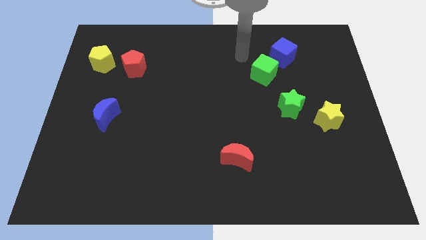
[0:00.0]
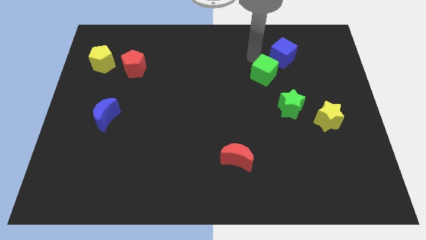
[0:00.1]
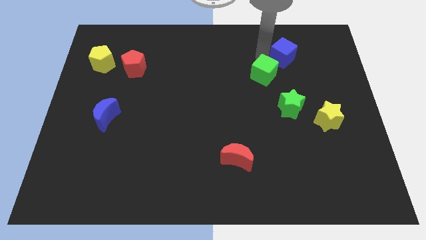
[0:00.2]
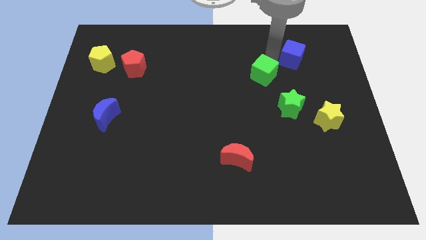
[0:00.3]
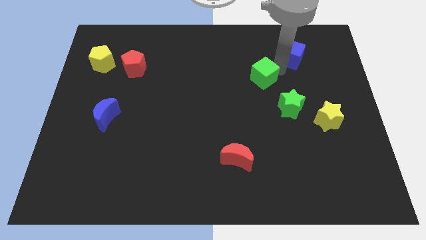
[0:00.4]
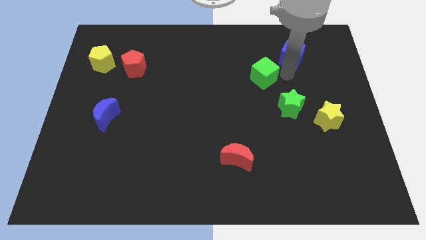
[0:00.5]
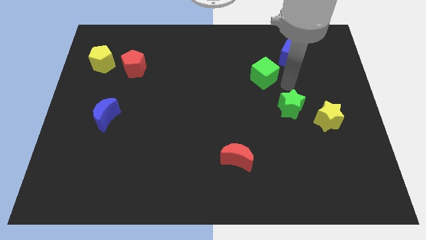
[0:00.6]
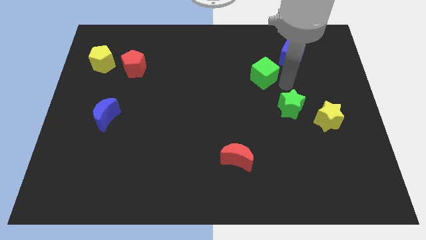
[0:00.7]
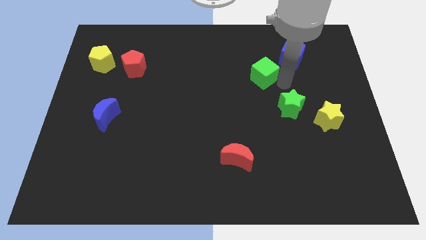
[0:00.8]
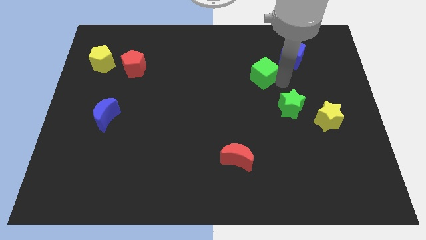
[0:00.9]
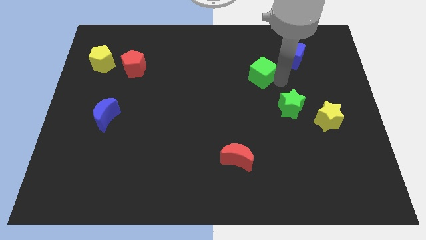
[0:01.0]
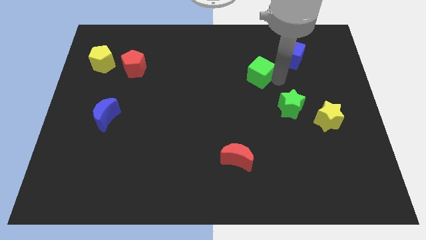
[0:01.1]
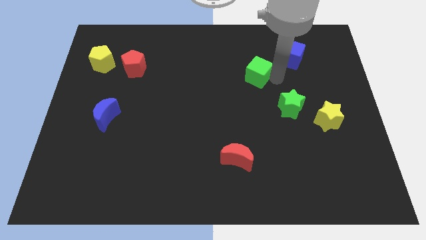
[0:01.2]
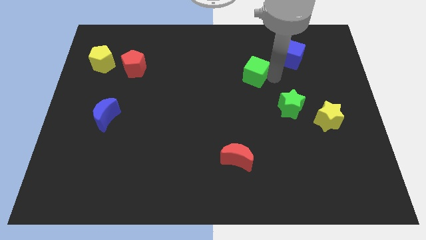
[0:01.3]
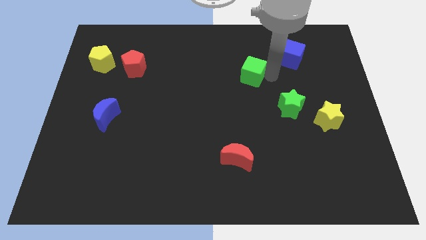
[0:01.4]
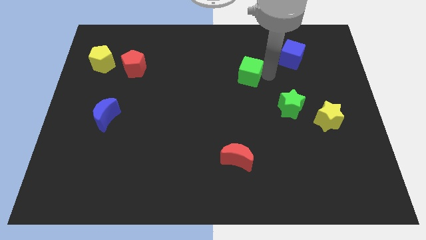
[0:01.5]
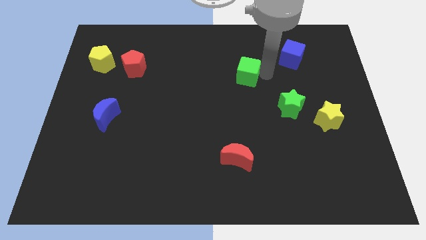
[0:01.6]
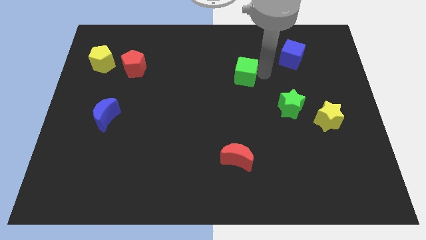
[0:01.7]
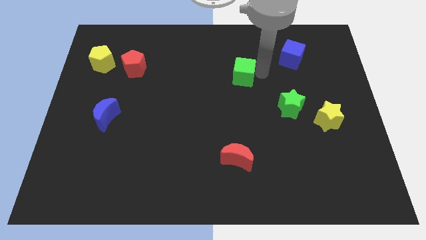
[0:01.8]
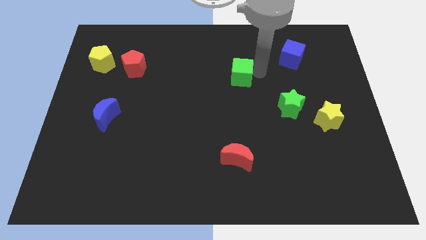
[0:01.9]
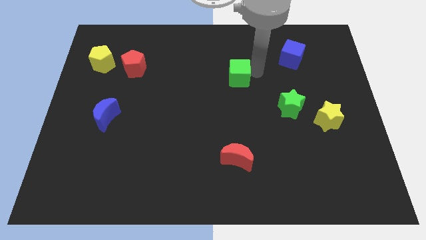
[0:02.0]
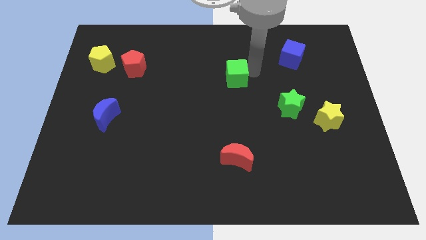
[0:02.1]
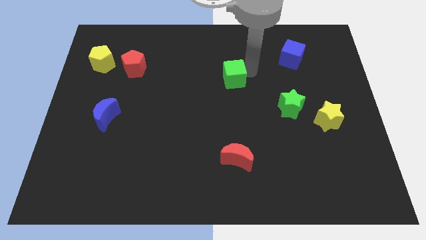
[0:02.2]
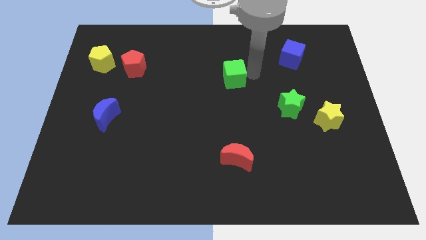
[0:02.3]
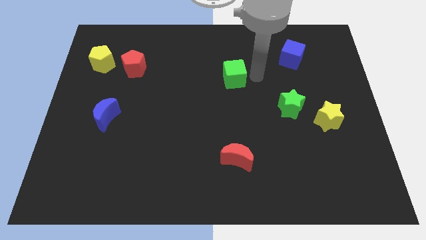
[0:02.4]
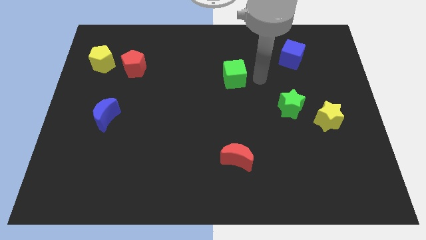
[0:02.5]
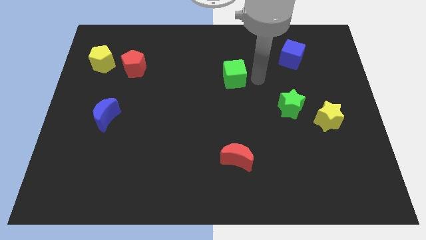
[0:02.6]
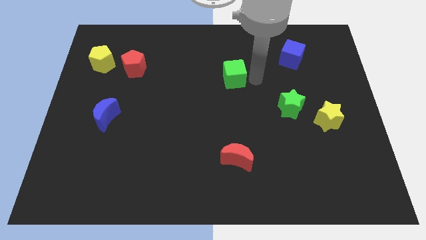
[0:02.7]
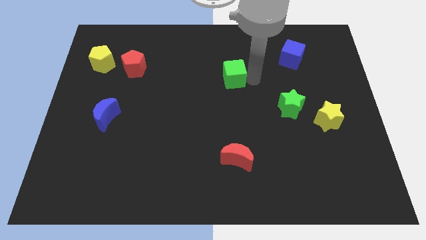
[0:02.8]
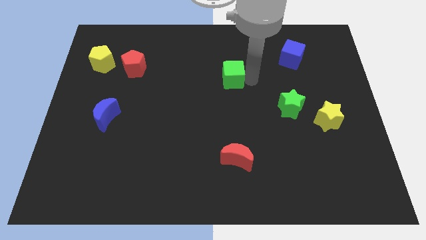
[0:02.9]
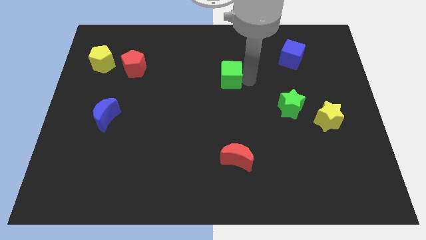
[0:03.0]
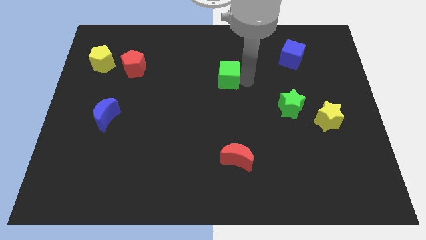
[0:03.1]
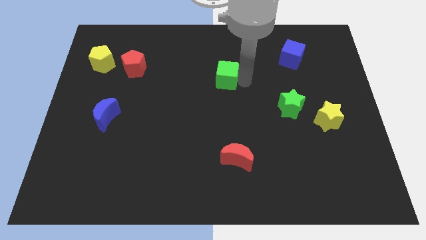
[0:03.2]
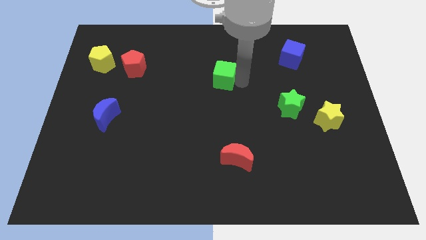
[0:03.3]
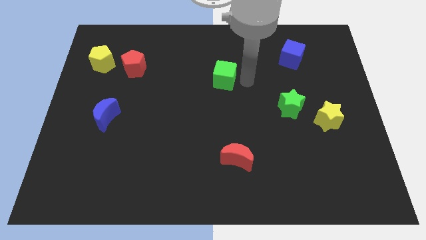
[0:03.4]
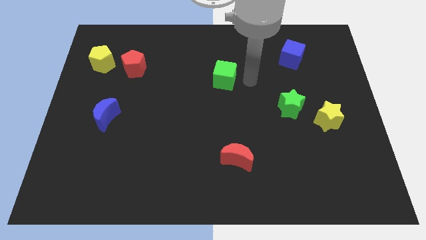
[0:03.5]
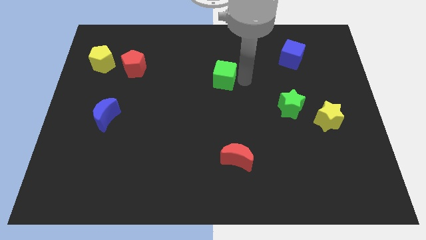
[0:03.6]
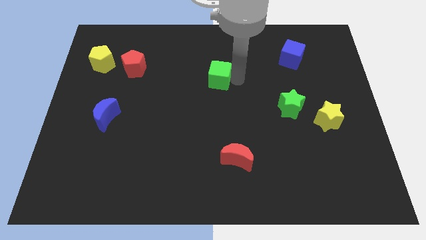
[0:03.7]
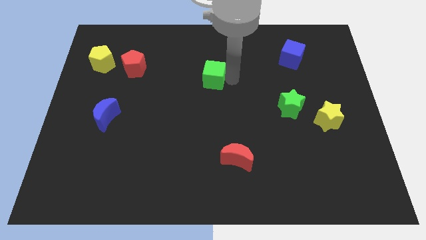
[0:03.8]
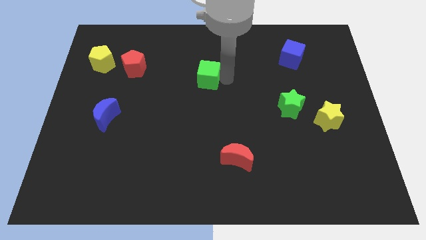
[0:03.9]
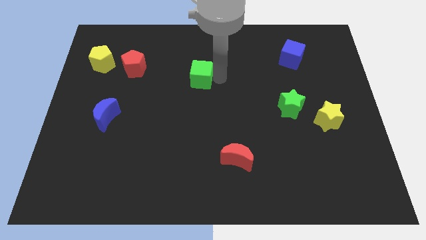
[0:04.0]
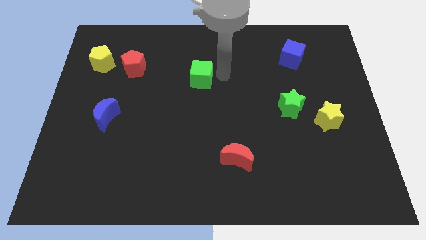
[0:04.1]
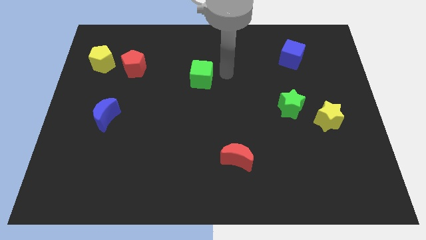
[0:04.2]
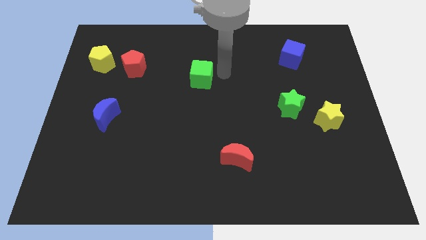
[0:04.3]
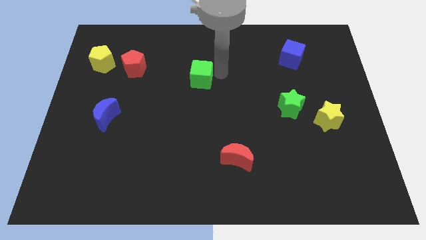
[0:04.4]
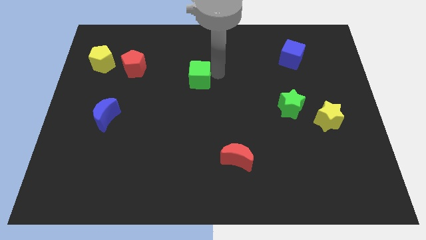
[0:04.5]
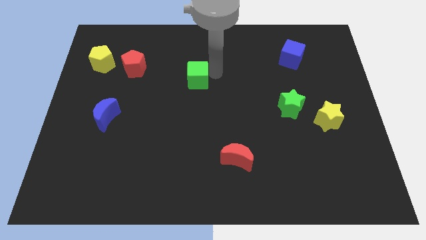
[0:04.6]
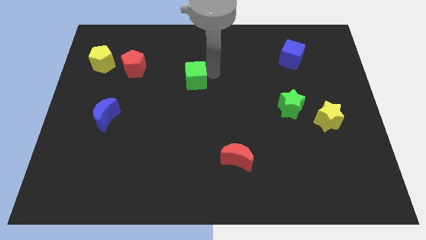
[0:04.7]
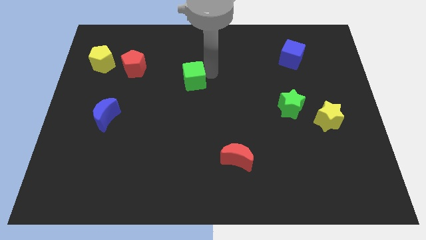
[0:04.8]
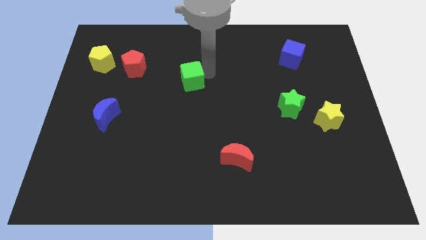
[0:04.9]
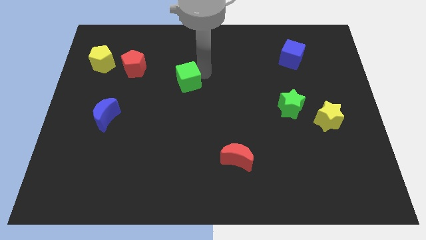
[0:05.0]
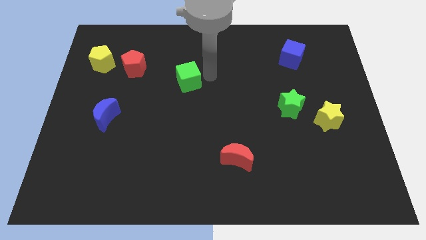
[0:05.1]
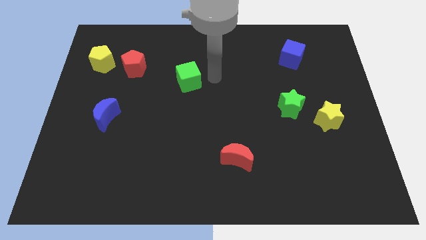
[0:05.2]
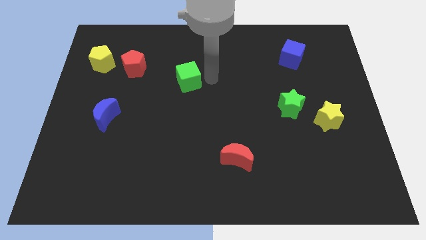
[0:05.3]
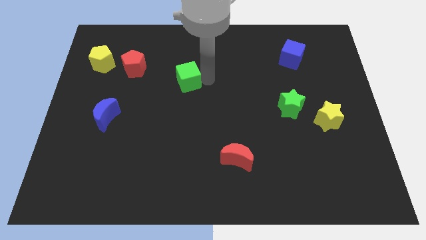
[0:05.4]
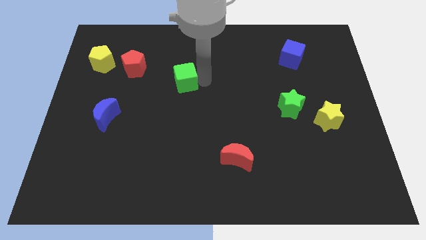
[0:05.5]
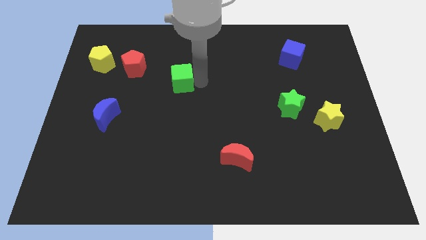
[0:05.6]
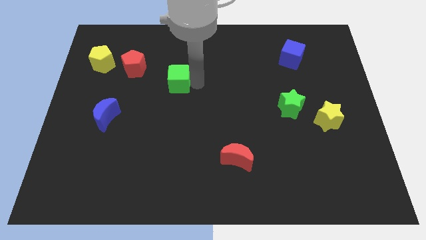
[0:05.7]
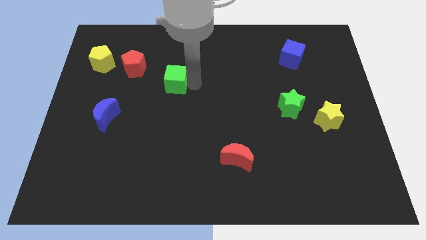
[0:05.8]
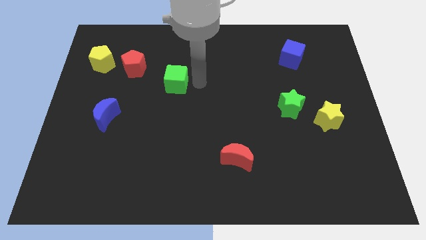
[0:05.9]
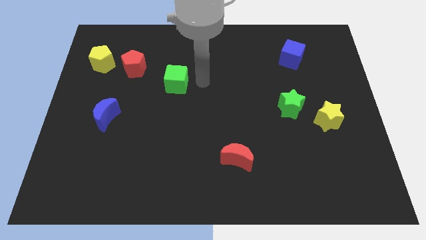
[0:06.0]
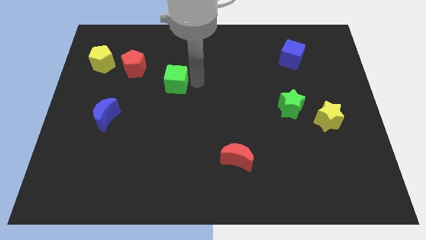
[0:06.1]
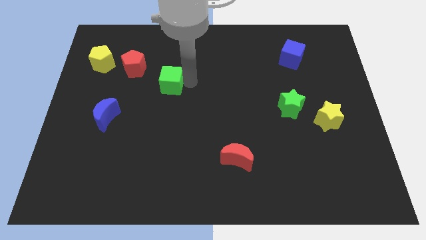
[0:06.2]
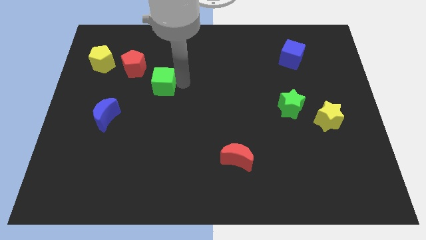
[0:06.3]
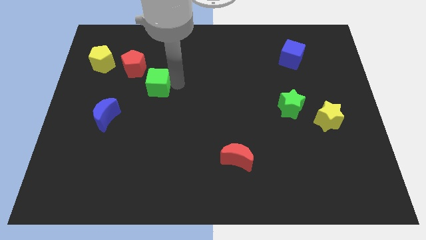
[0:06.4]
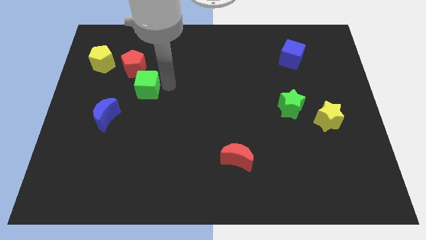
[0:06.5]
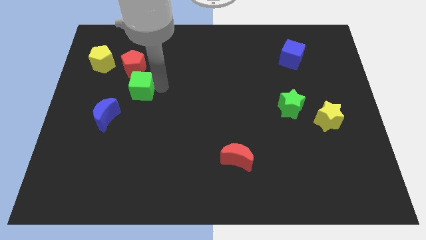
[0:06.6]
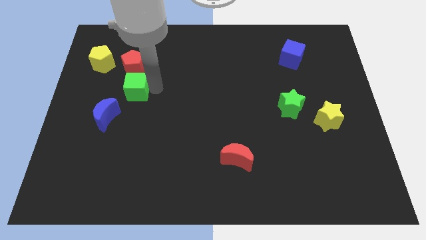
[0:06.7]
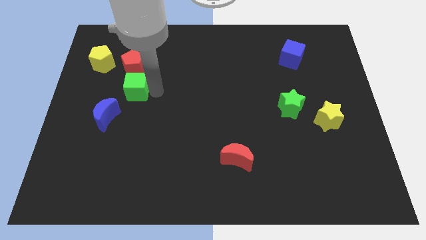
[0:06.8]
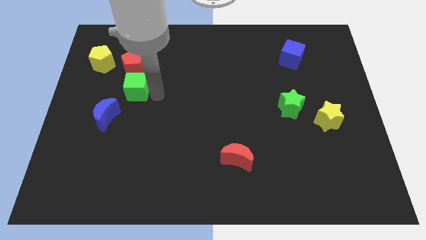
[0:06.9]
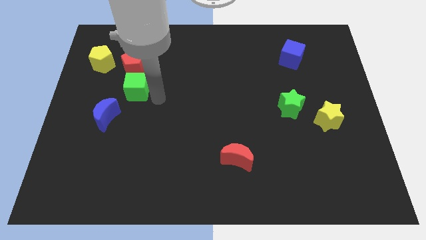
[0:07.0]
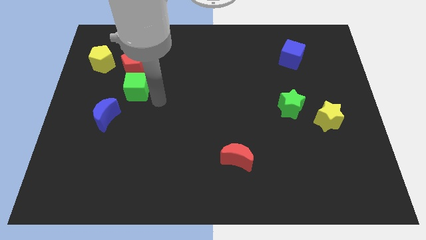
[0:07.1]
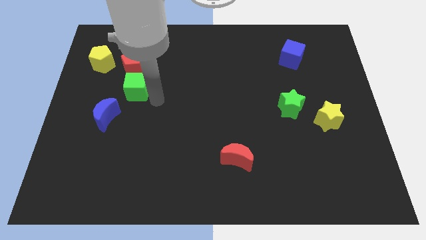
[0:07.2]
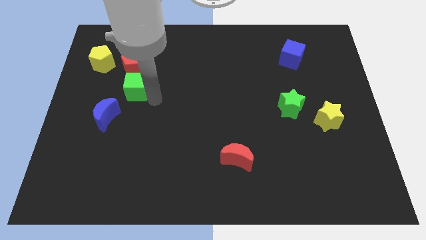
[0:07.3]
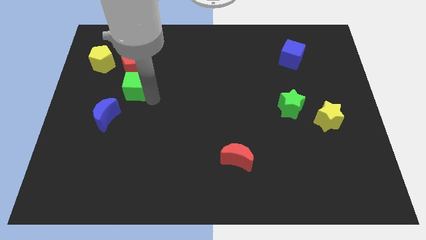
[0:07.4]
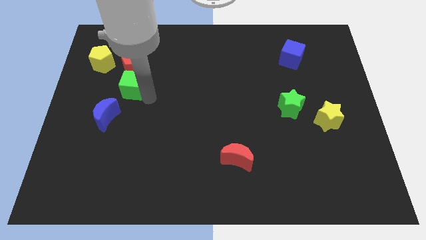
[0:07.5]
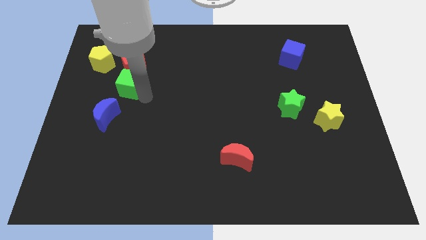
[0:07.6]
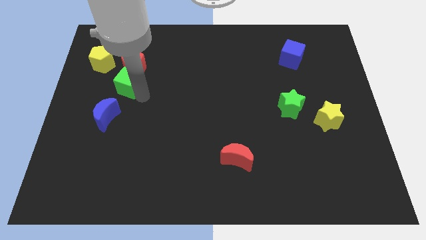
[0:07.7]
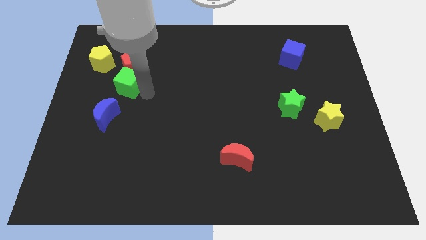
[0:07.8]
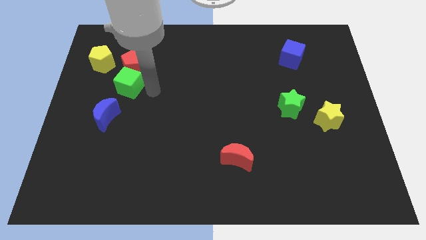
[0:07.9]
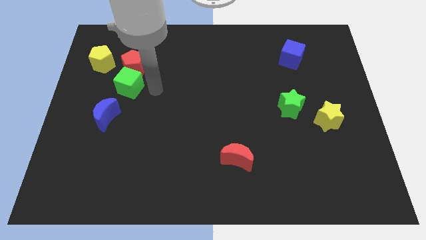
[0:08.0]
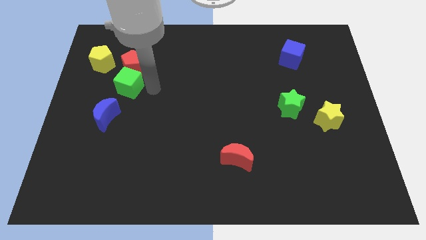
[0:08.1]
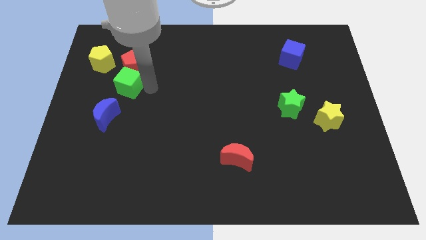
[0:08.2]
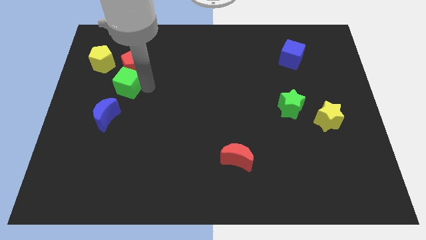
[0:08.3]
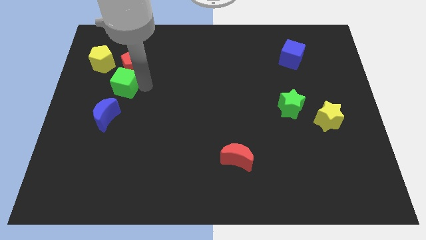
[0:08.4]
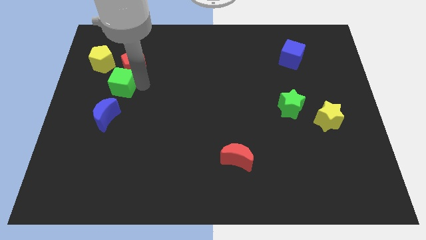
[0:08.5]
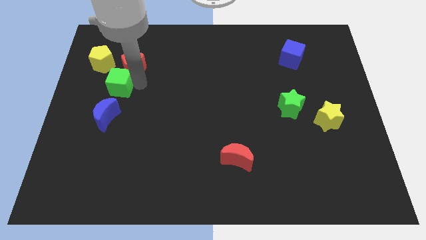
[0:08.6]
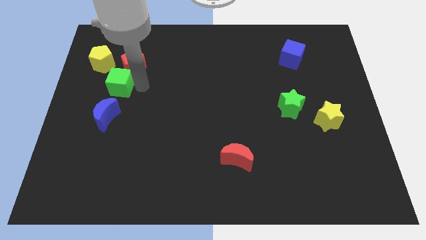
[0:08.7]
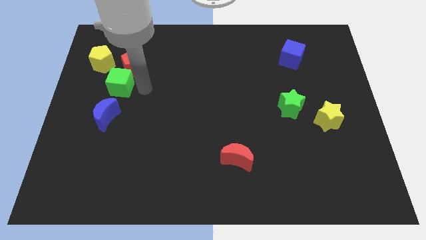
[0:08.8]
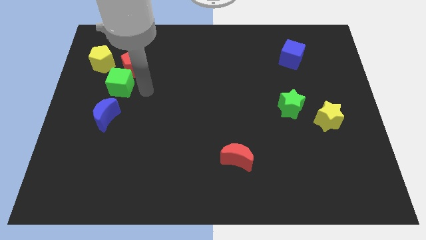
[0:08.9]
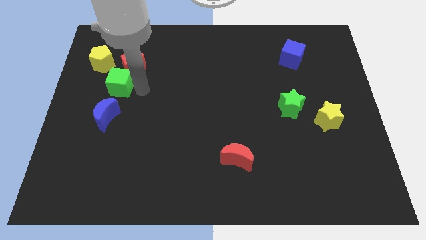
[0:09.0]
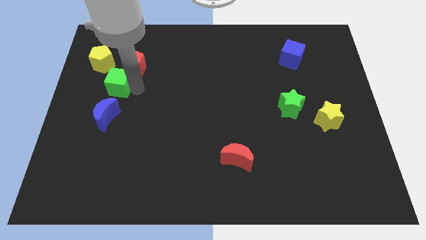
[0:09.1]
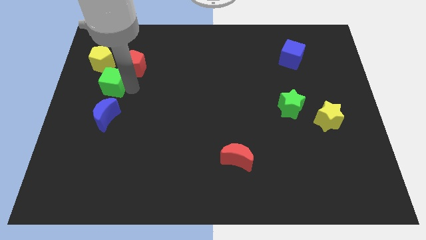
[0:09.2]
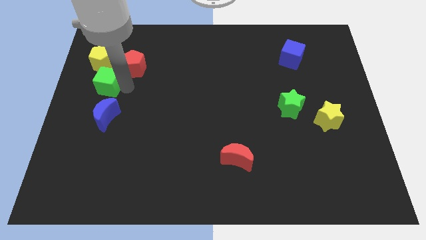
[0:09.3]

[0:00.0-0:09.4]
push the green cube to the left side
